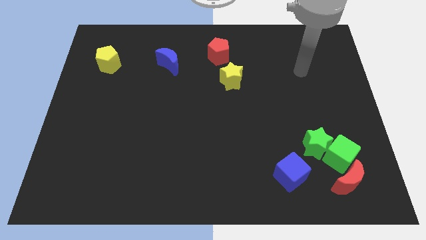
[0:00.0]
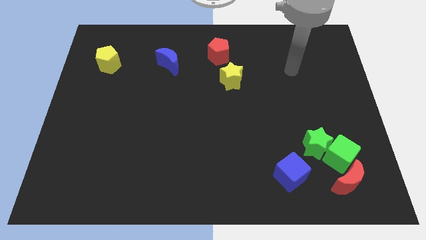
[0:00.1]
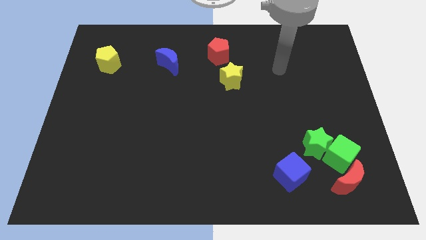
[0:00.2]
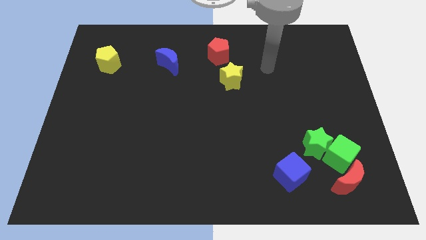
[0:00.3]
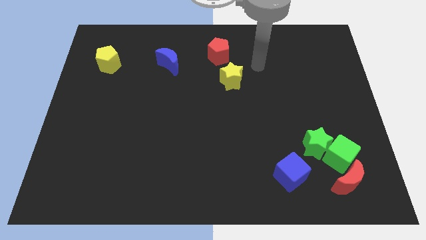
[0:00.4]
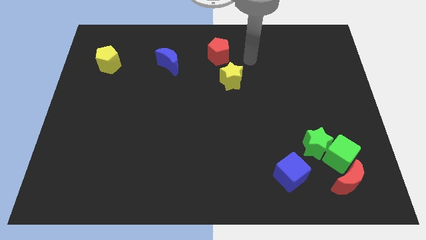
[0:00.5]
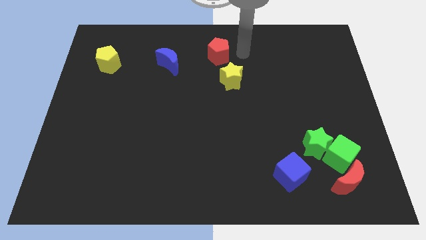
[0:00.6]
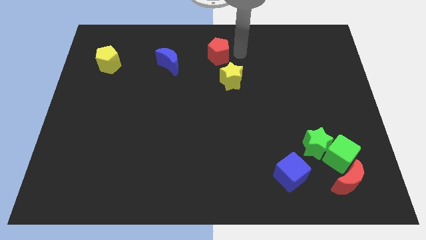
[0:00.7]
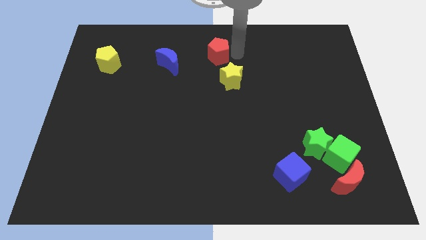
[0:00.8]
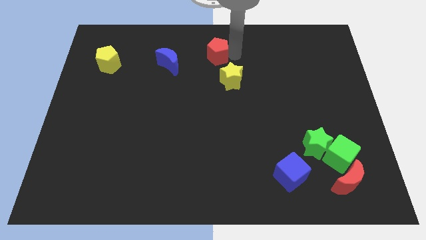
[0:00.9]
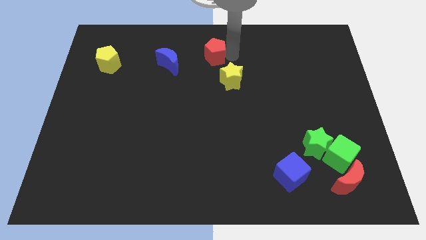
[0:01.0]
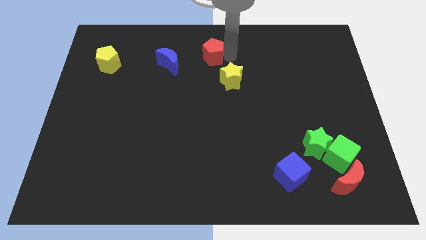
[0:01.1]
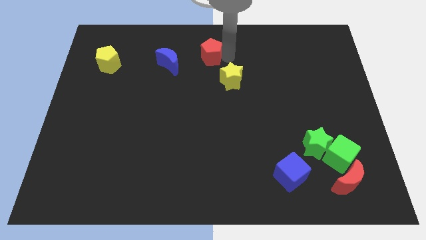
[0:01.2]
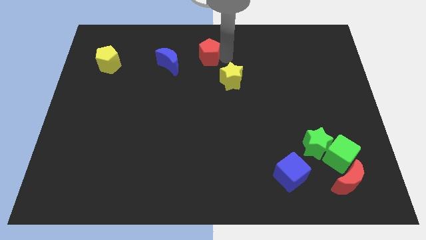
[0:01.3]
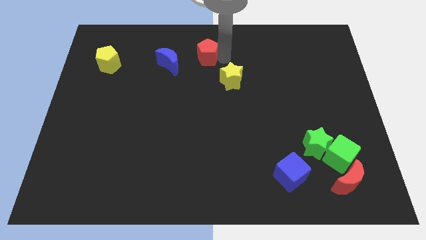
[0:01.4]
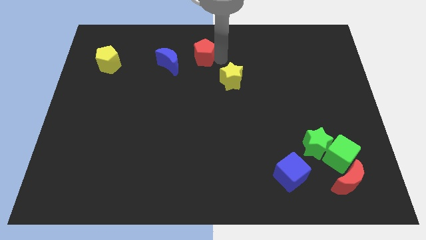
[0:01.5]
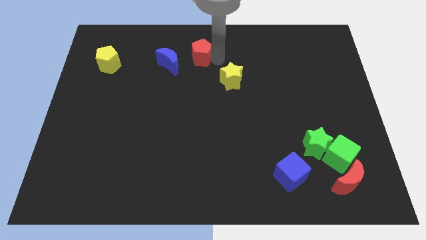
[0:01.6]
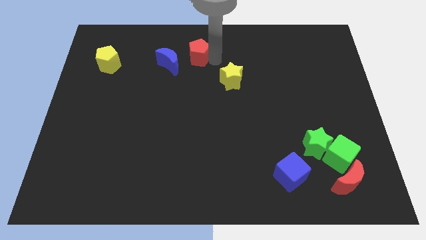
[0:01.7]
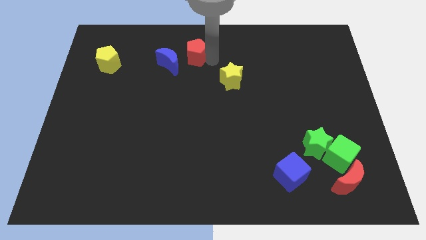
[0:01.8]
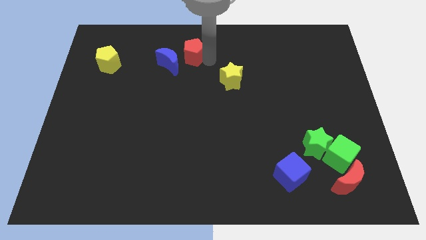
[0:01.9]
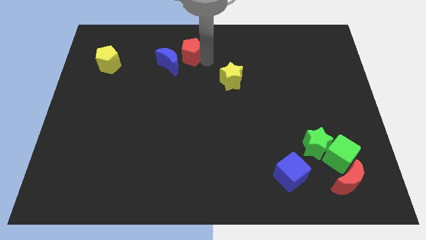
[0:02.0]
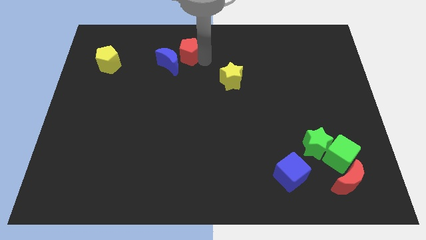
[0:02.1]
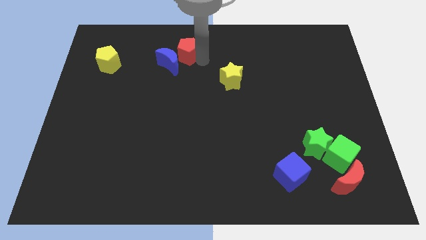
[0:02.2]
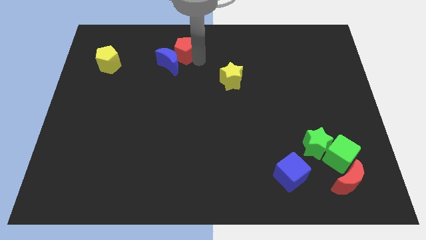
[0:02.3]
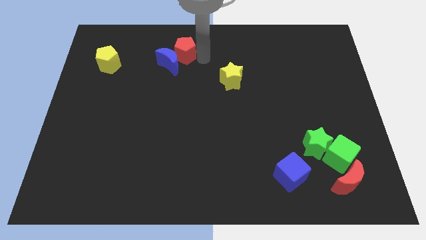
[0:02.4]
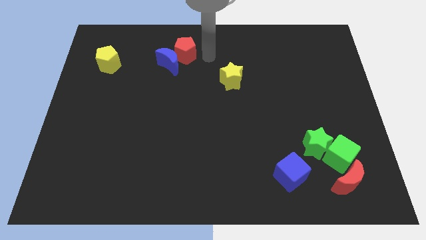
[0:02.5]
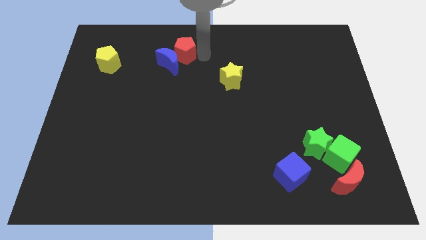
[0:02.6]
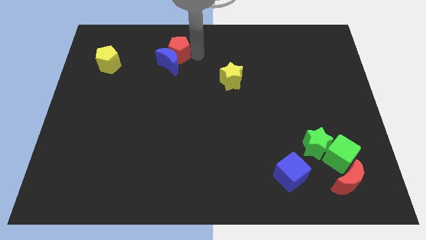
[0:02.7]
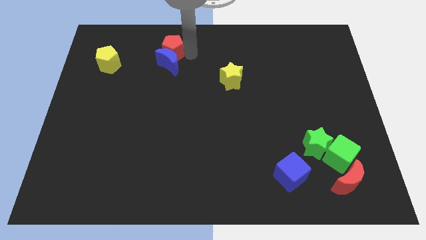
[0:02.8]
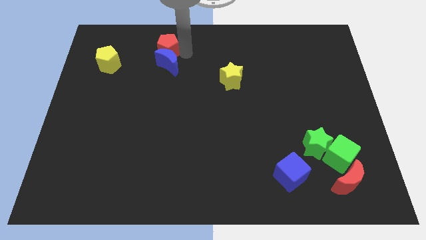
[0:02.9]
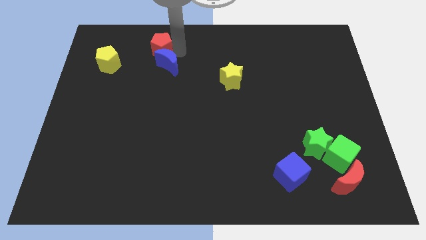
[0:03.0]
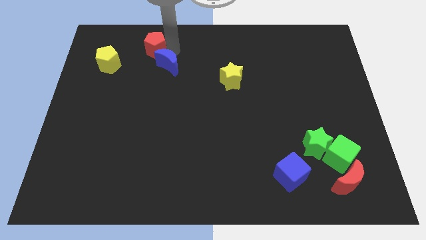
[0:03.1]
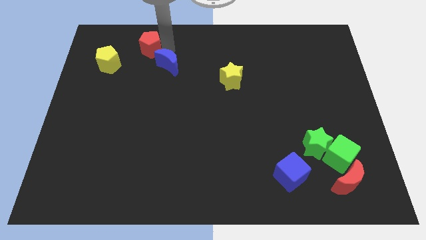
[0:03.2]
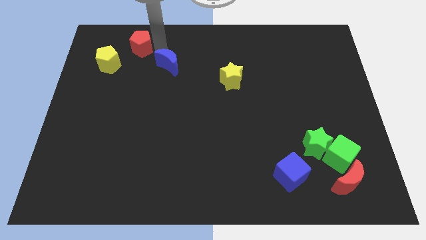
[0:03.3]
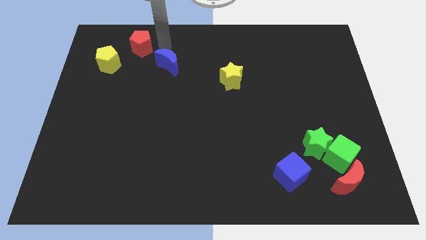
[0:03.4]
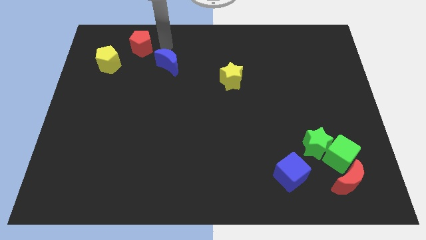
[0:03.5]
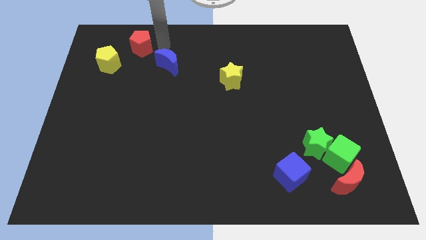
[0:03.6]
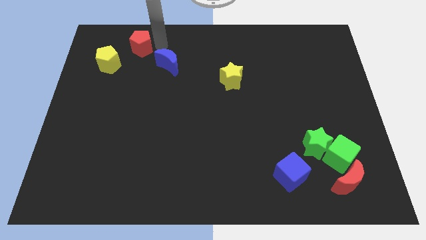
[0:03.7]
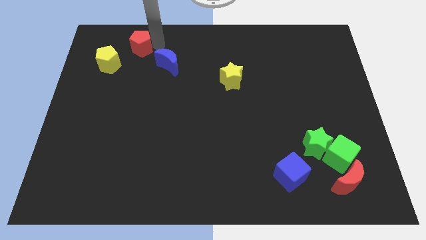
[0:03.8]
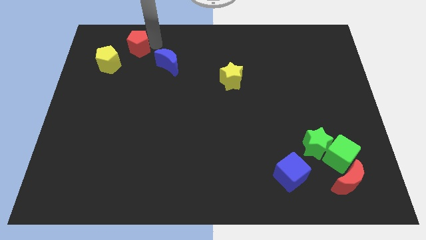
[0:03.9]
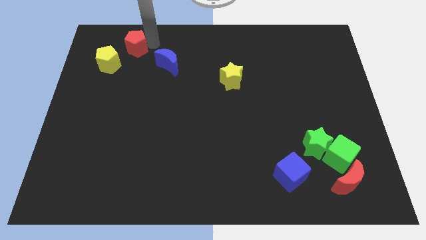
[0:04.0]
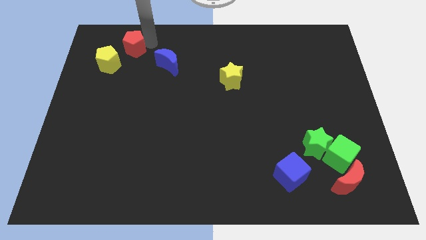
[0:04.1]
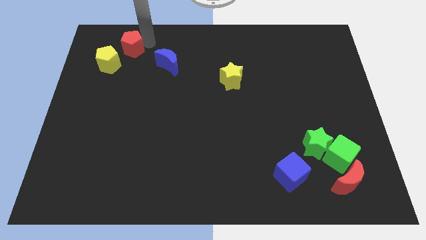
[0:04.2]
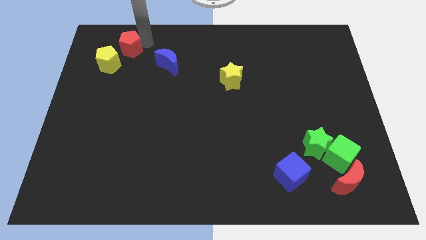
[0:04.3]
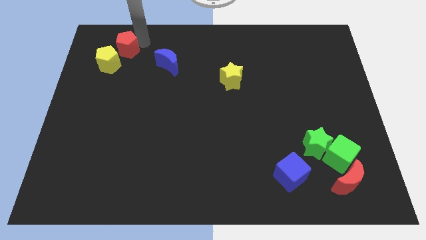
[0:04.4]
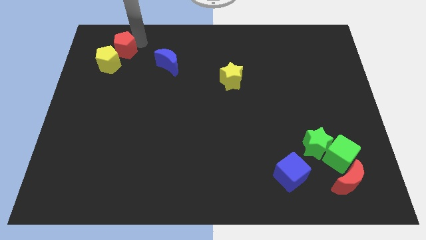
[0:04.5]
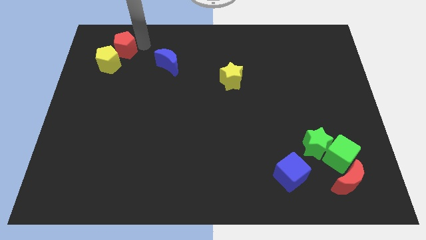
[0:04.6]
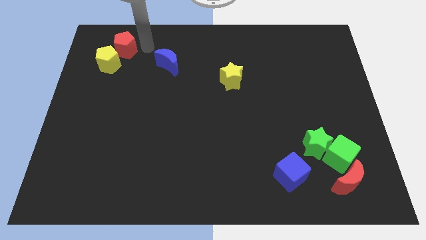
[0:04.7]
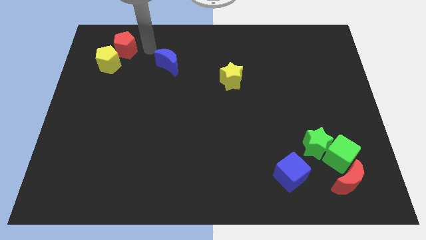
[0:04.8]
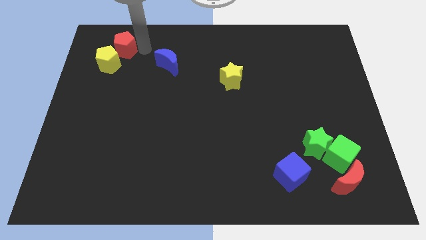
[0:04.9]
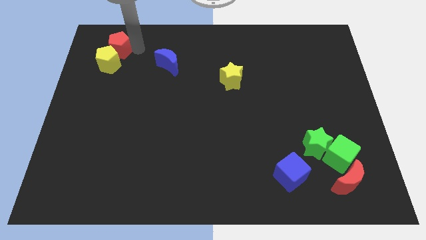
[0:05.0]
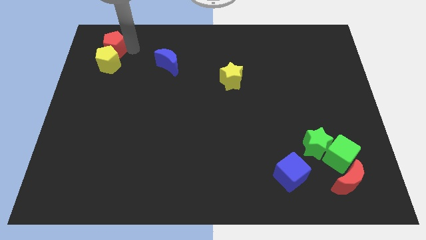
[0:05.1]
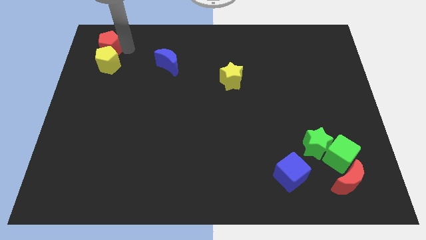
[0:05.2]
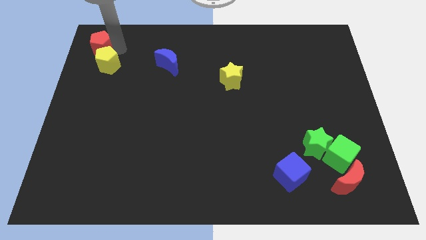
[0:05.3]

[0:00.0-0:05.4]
put the red pentagon to the top left corner
